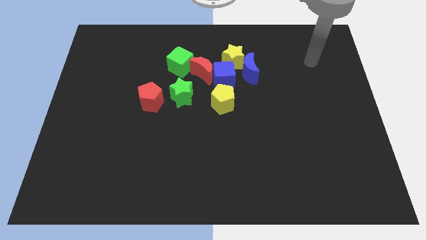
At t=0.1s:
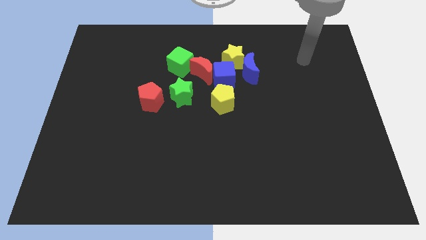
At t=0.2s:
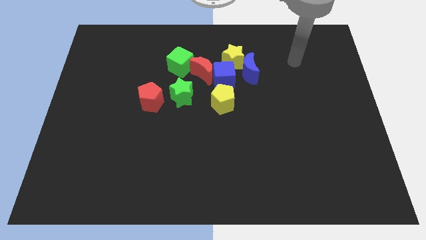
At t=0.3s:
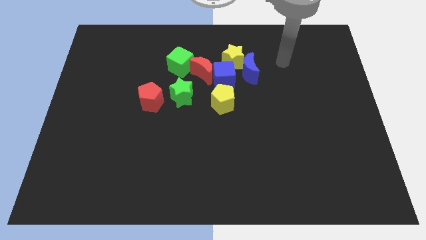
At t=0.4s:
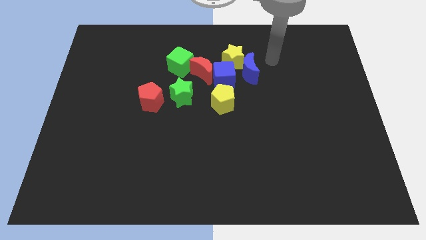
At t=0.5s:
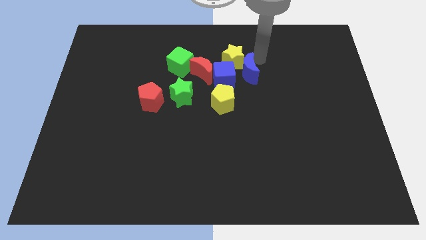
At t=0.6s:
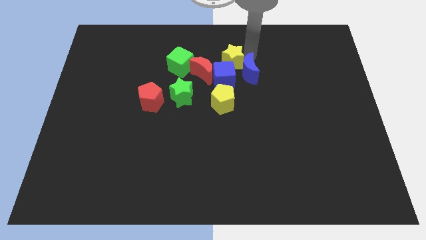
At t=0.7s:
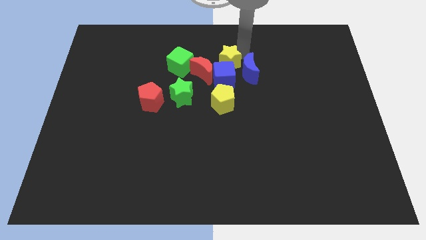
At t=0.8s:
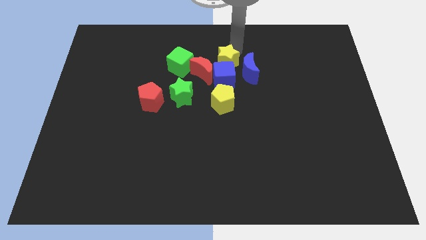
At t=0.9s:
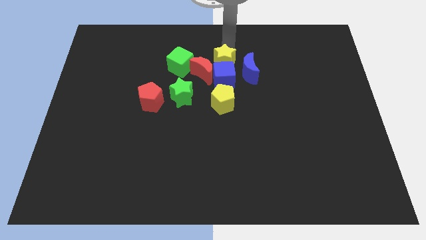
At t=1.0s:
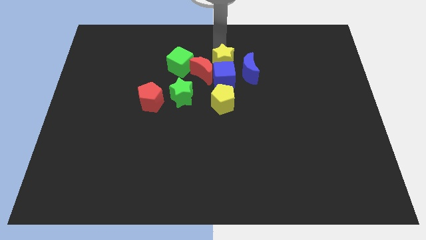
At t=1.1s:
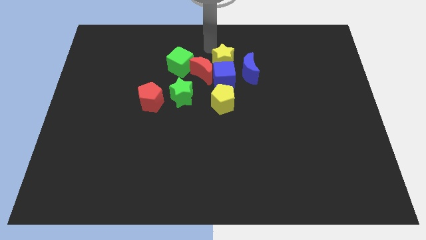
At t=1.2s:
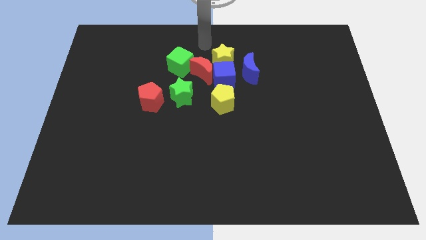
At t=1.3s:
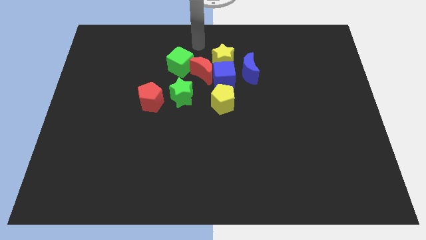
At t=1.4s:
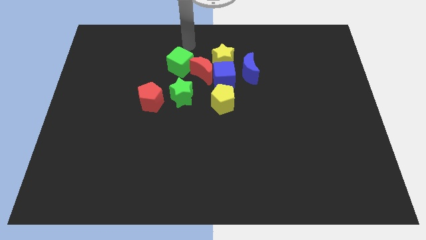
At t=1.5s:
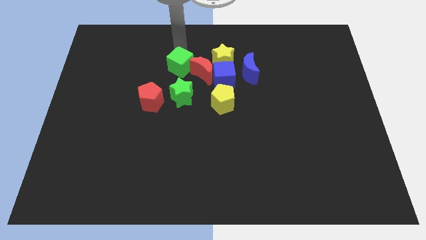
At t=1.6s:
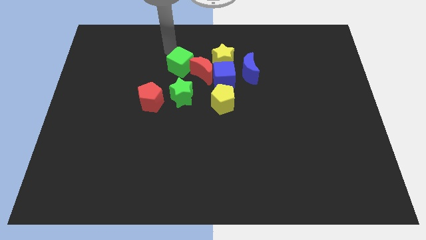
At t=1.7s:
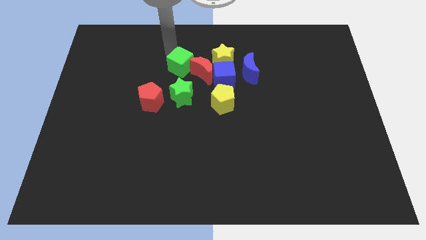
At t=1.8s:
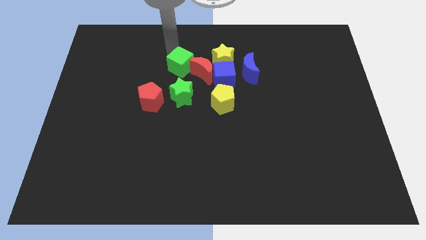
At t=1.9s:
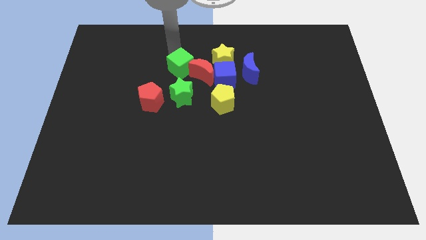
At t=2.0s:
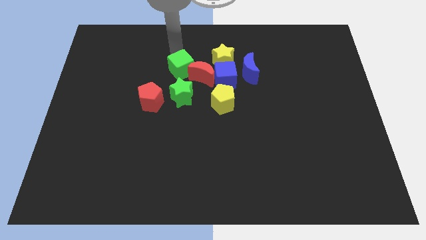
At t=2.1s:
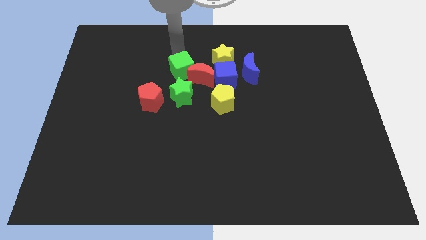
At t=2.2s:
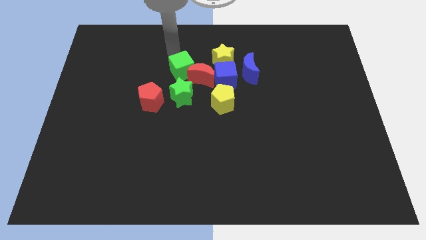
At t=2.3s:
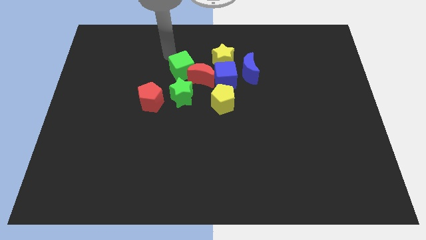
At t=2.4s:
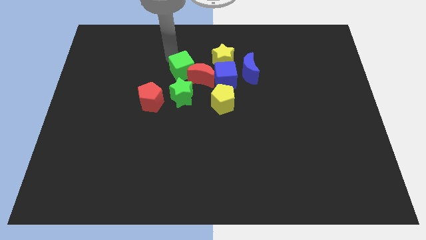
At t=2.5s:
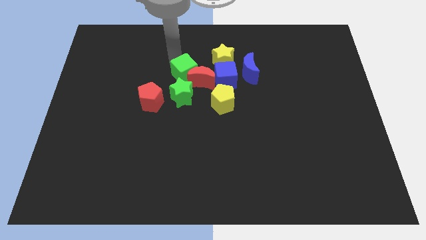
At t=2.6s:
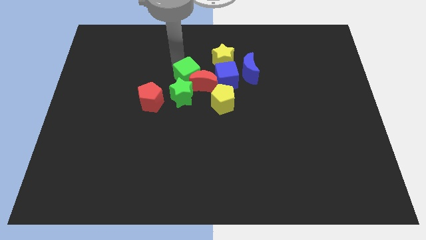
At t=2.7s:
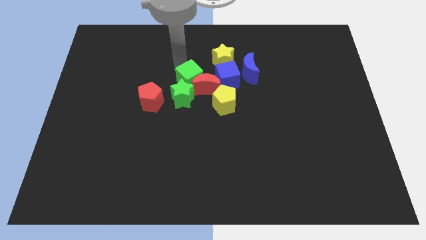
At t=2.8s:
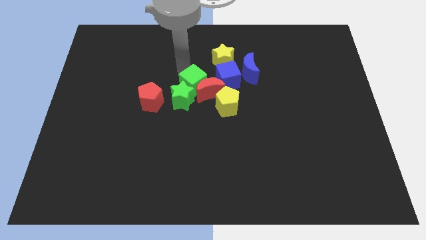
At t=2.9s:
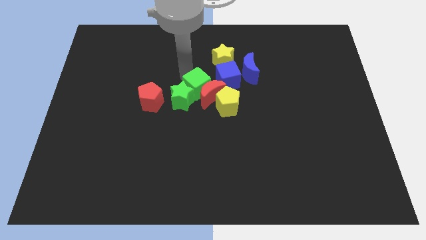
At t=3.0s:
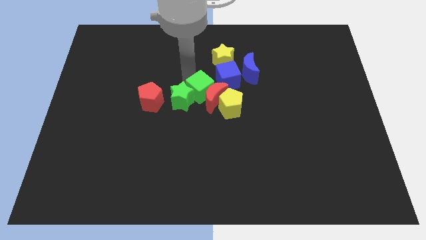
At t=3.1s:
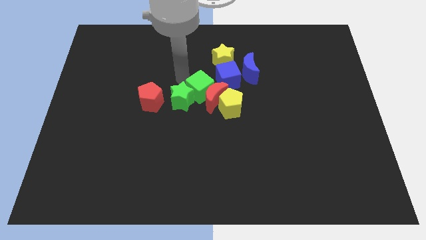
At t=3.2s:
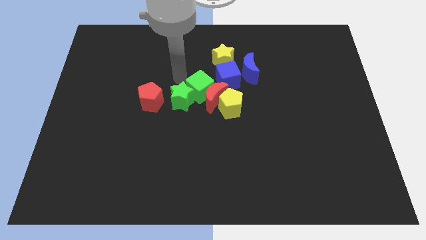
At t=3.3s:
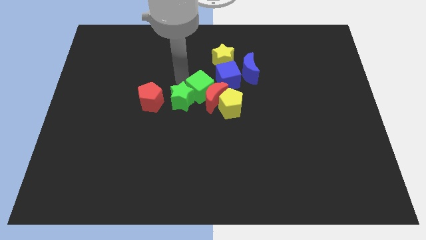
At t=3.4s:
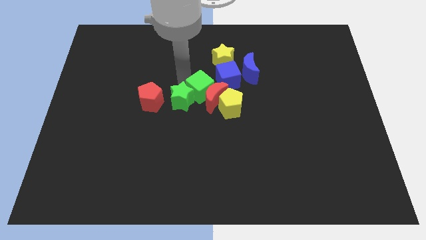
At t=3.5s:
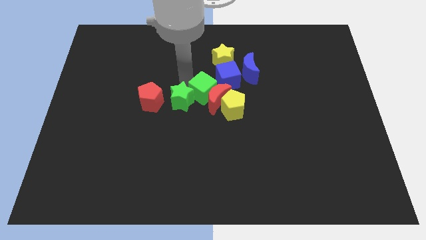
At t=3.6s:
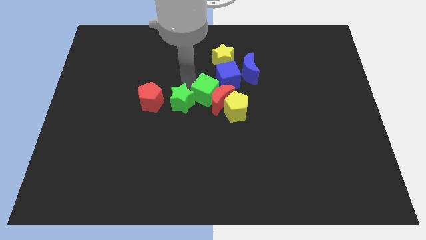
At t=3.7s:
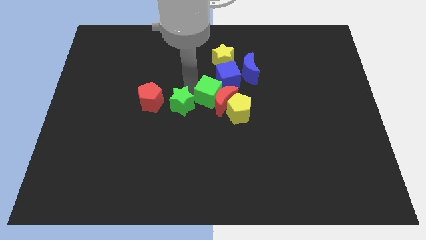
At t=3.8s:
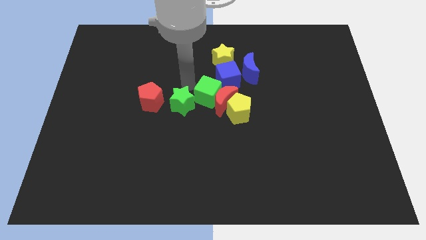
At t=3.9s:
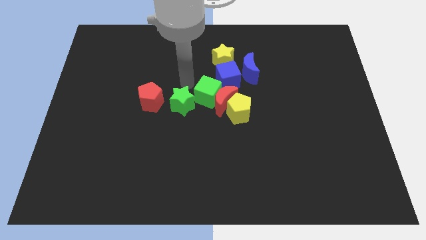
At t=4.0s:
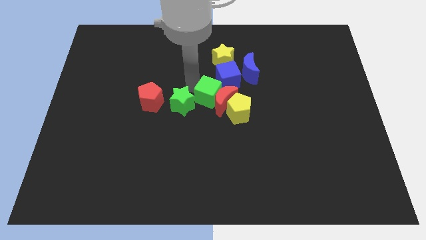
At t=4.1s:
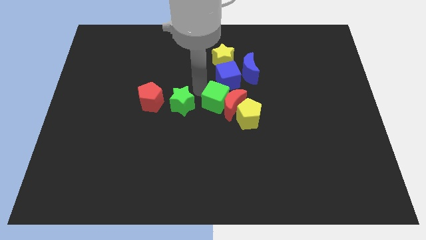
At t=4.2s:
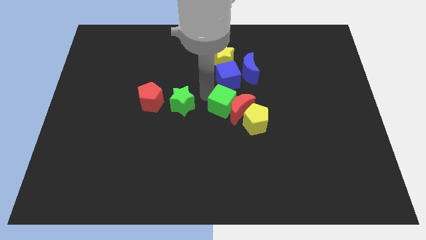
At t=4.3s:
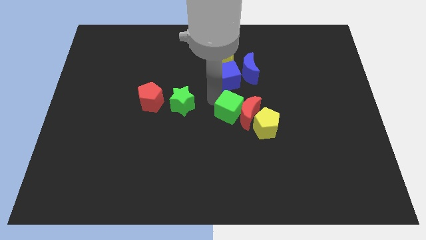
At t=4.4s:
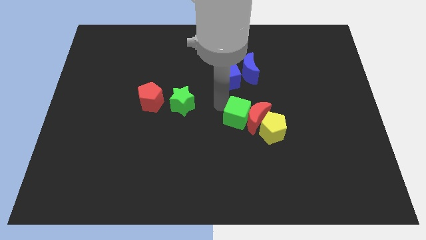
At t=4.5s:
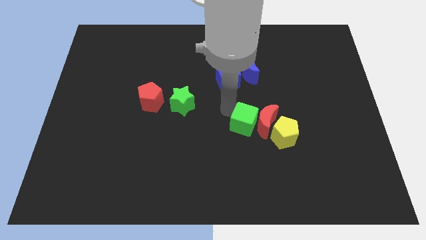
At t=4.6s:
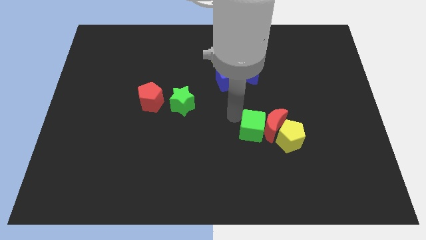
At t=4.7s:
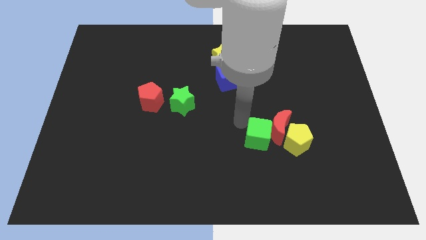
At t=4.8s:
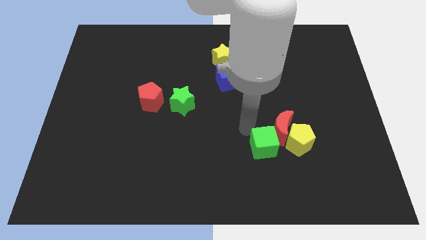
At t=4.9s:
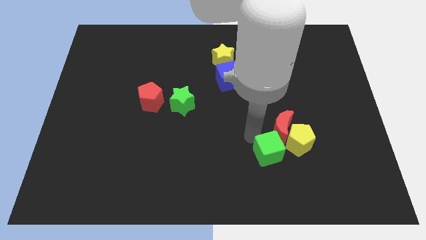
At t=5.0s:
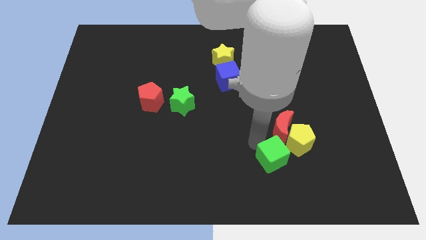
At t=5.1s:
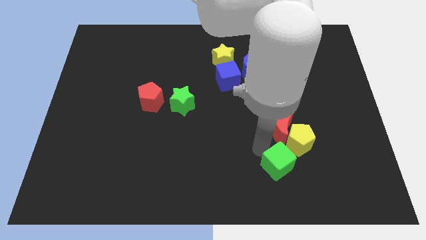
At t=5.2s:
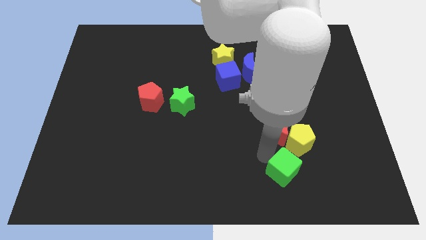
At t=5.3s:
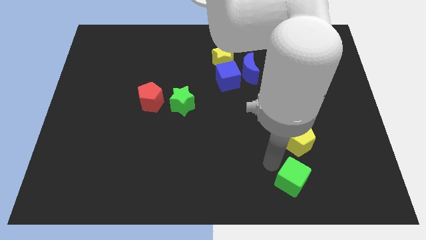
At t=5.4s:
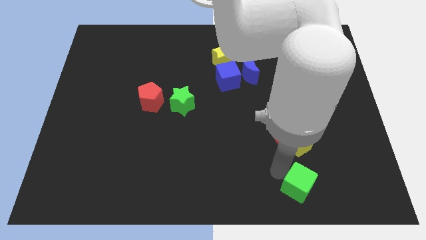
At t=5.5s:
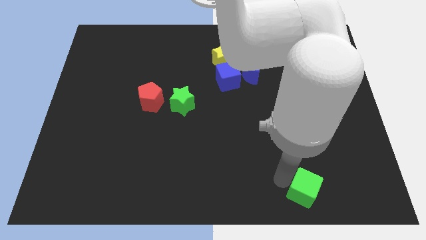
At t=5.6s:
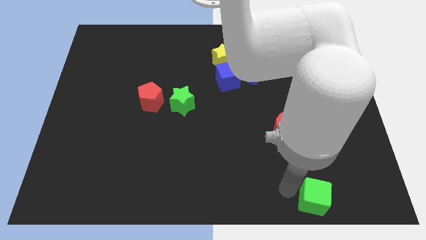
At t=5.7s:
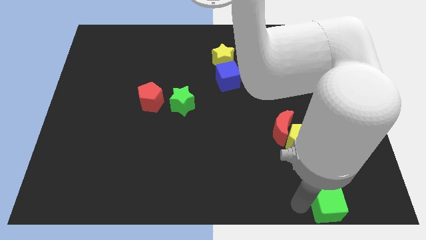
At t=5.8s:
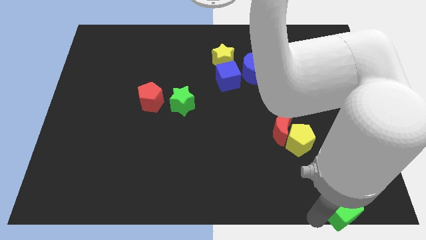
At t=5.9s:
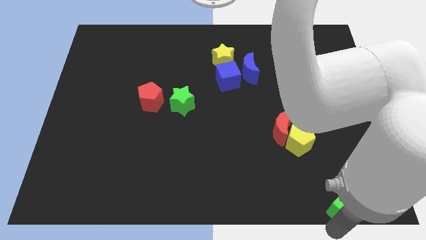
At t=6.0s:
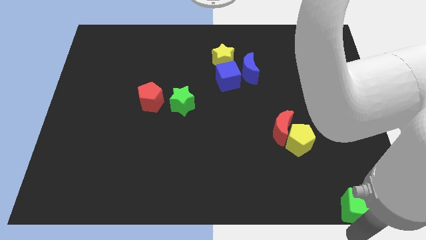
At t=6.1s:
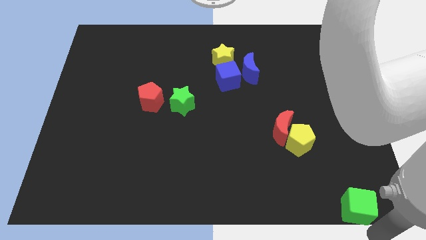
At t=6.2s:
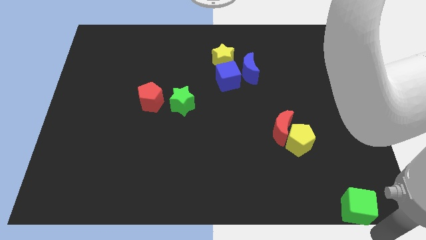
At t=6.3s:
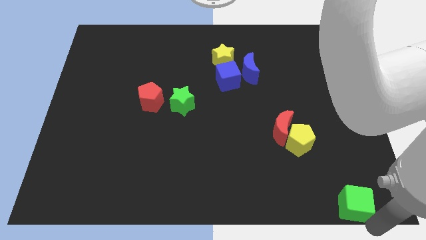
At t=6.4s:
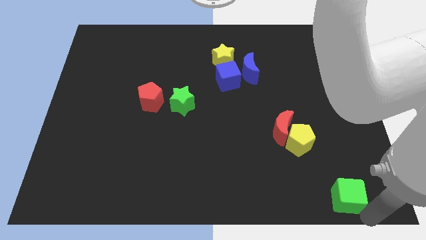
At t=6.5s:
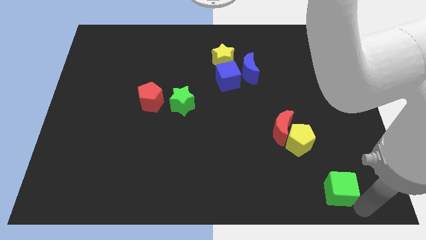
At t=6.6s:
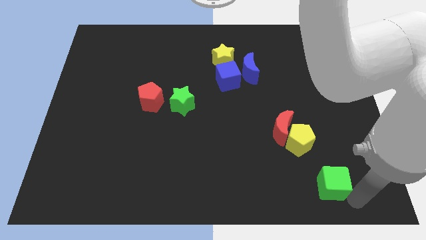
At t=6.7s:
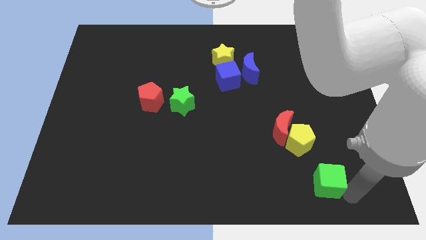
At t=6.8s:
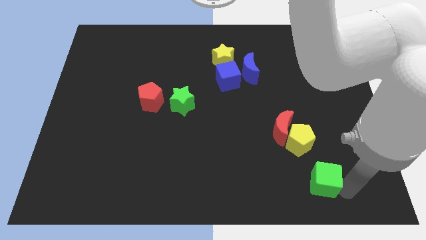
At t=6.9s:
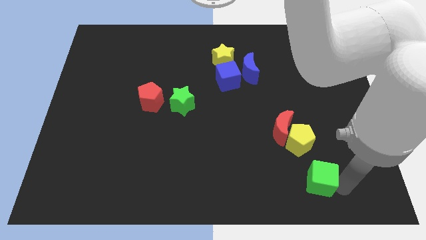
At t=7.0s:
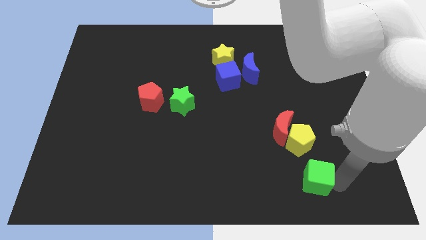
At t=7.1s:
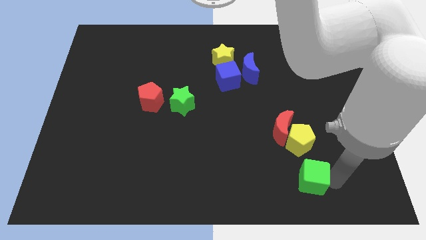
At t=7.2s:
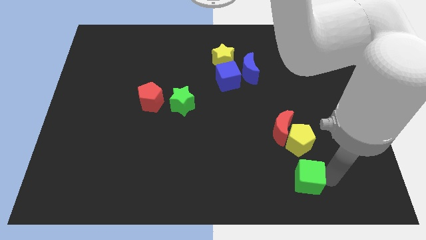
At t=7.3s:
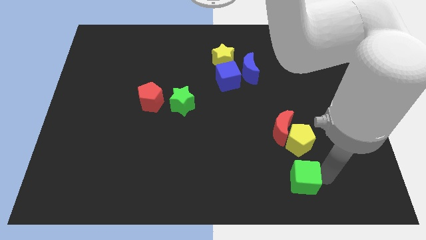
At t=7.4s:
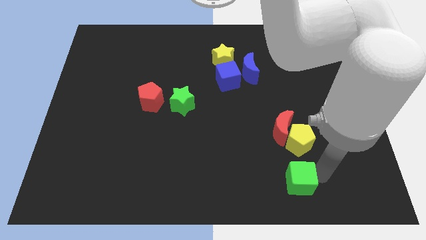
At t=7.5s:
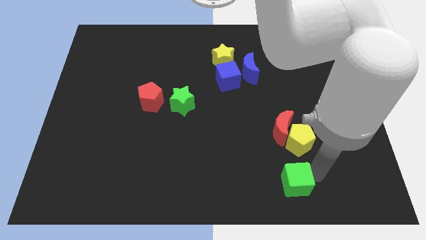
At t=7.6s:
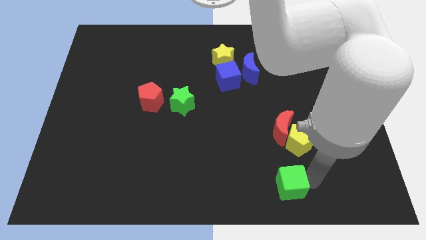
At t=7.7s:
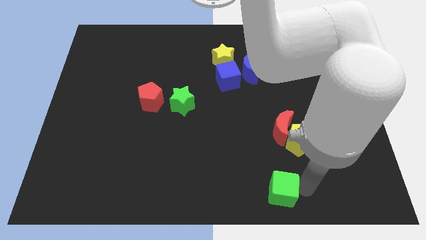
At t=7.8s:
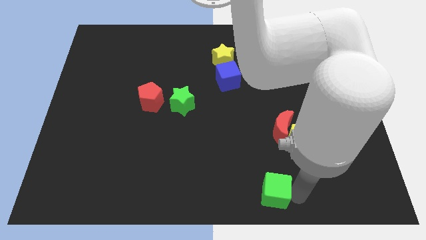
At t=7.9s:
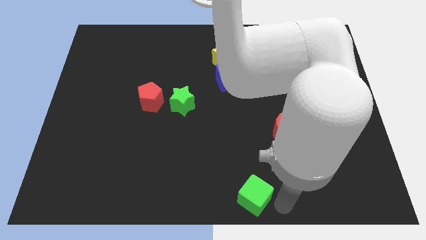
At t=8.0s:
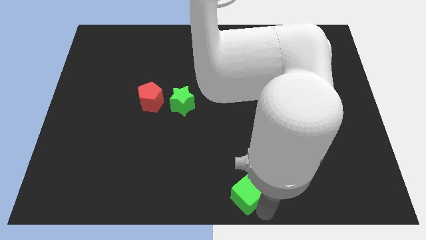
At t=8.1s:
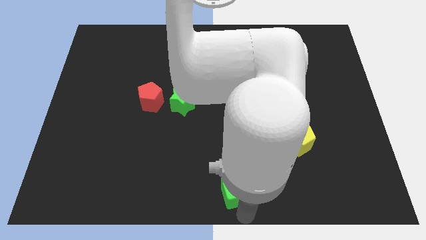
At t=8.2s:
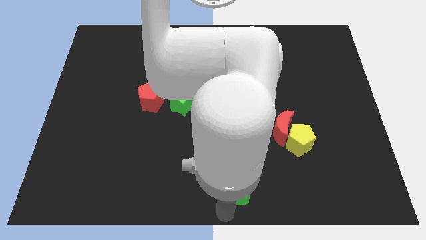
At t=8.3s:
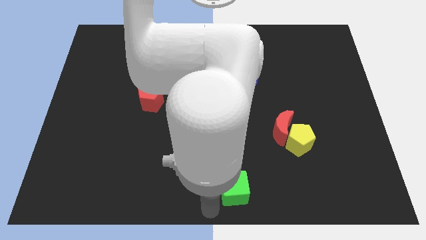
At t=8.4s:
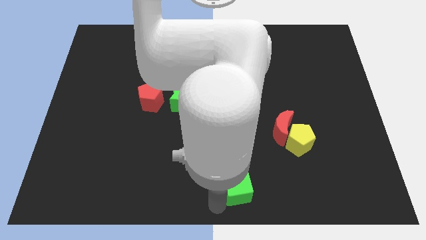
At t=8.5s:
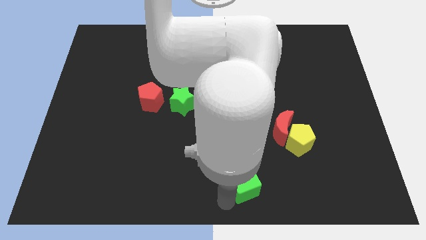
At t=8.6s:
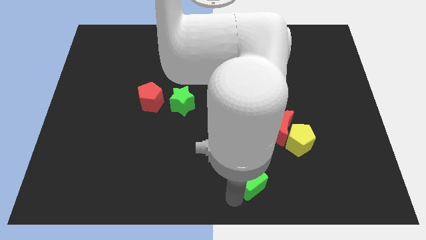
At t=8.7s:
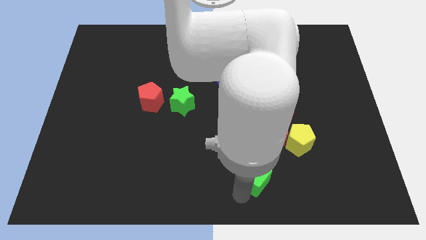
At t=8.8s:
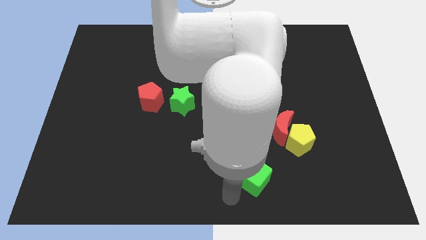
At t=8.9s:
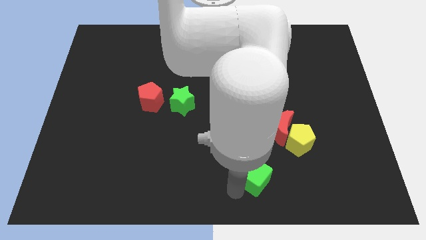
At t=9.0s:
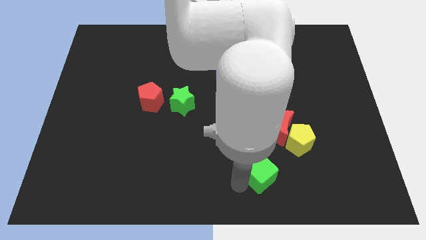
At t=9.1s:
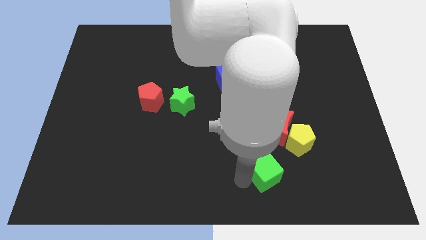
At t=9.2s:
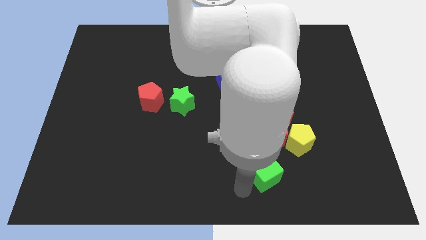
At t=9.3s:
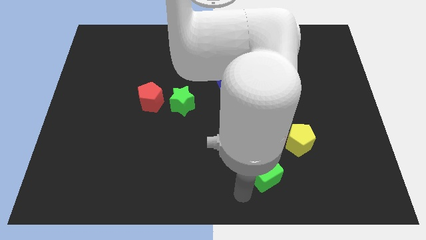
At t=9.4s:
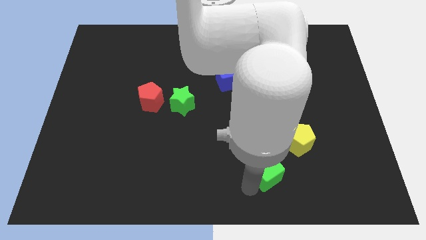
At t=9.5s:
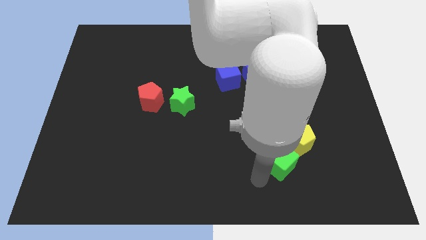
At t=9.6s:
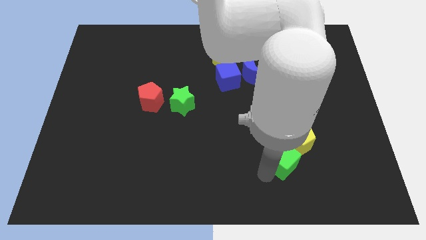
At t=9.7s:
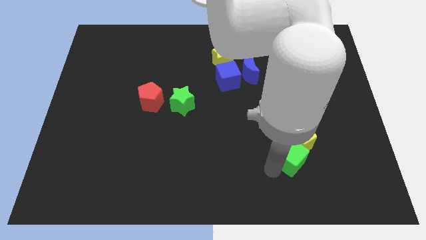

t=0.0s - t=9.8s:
slide the green cube next to the yellow pentagon
